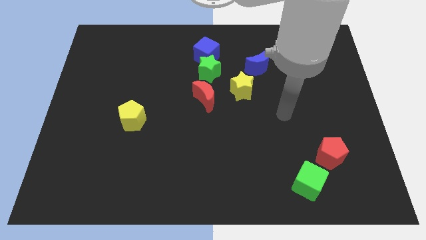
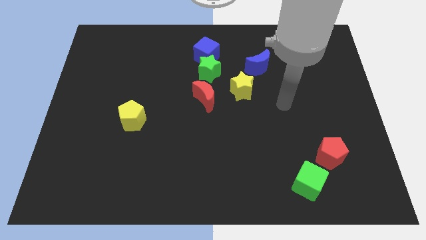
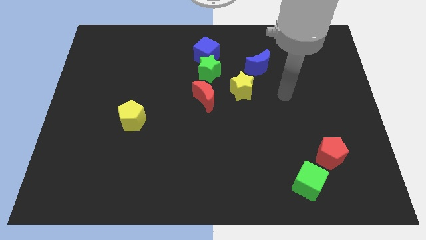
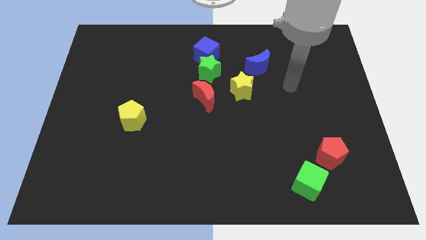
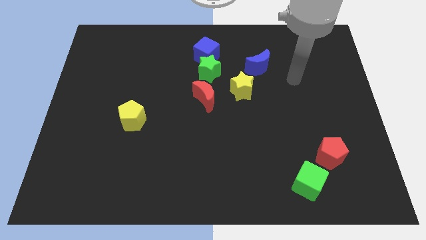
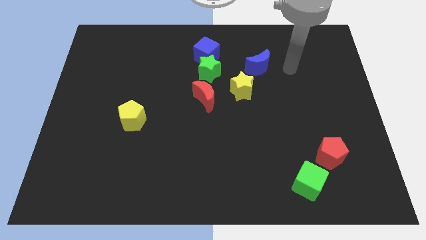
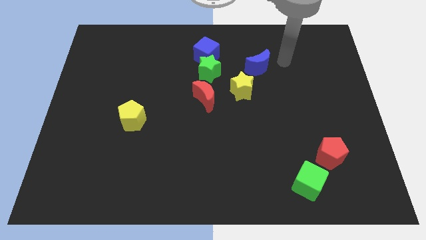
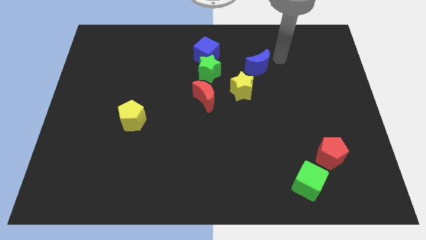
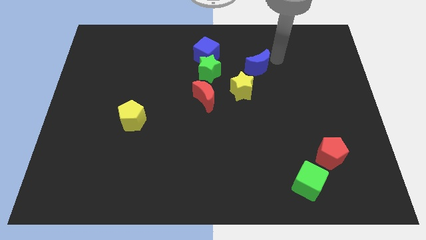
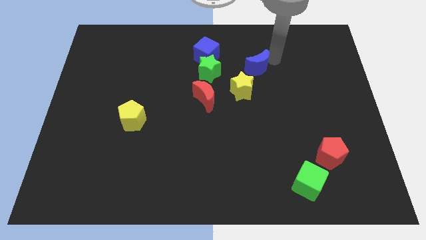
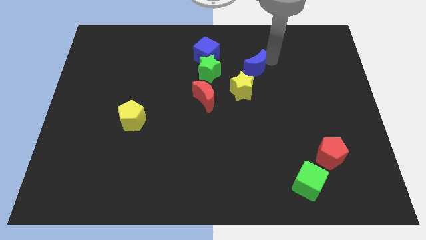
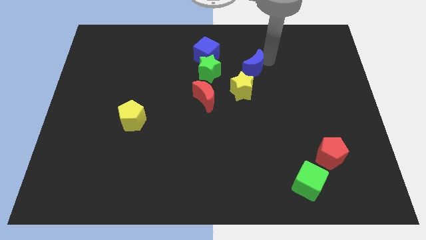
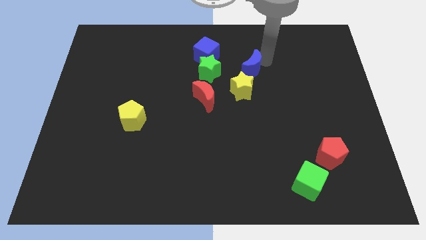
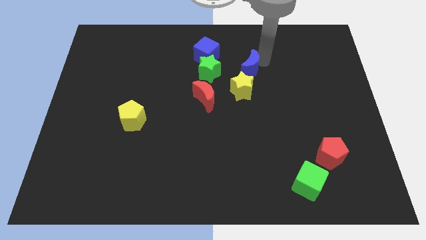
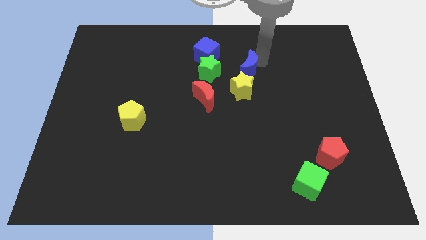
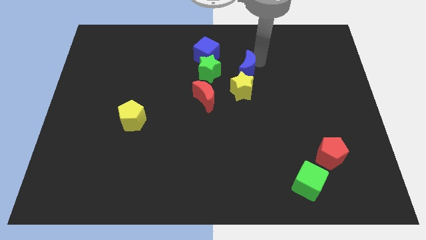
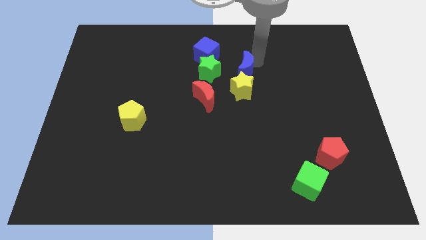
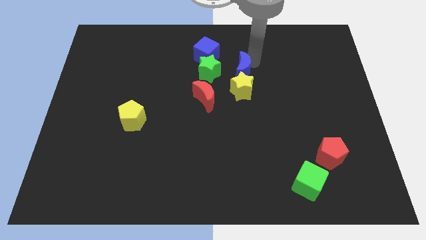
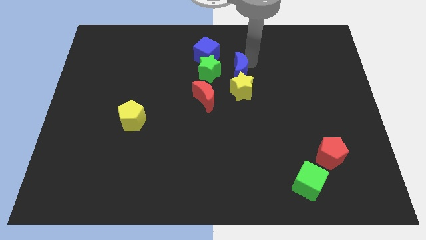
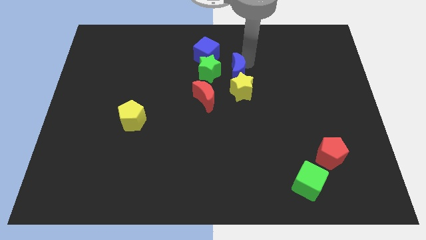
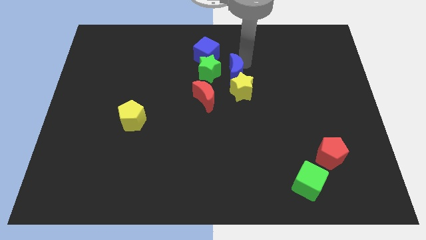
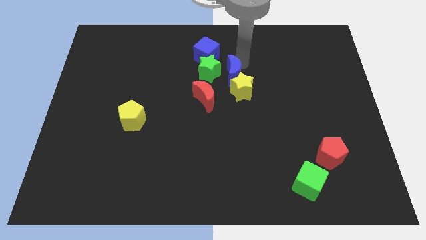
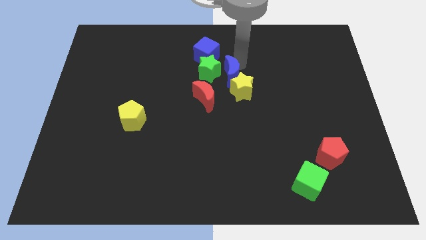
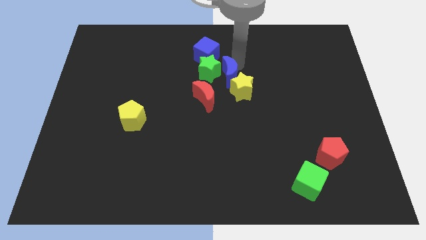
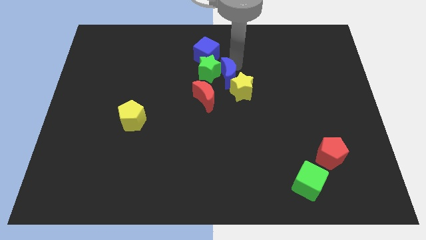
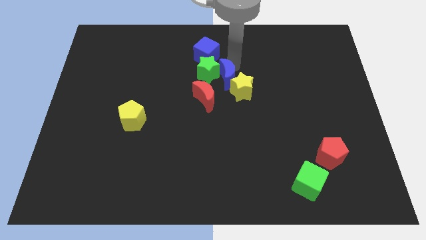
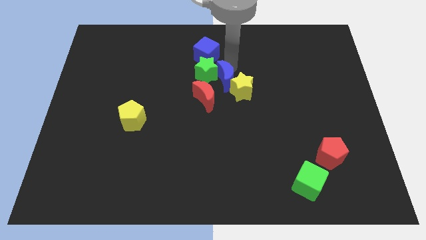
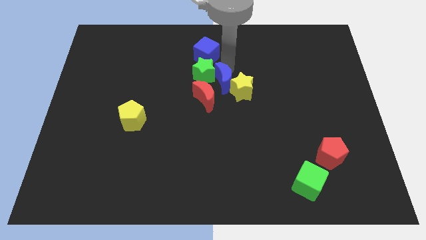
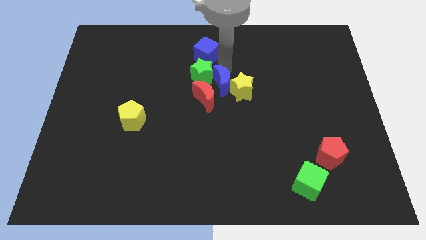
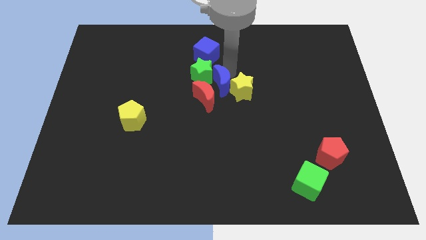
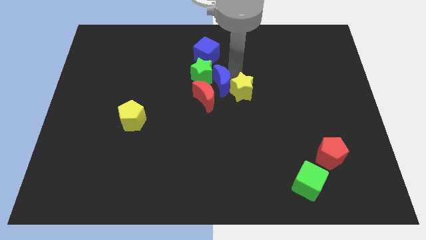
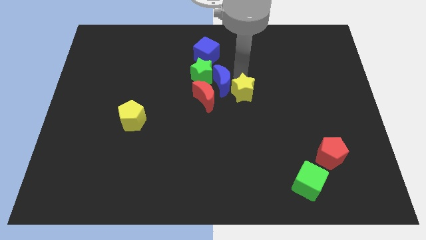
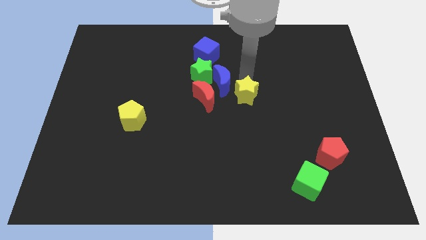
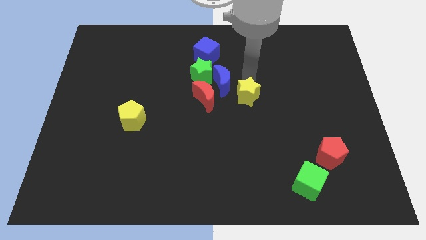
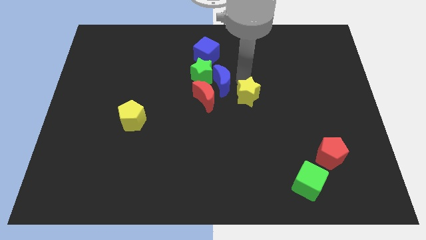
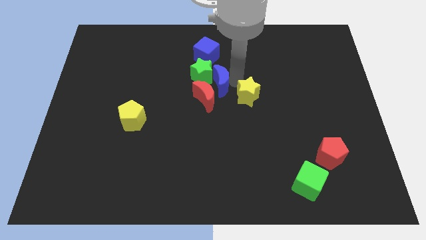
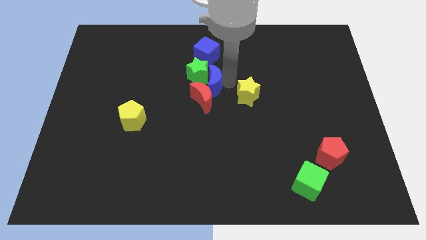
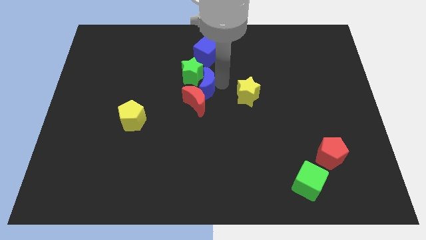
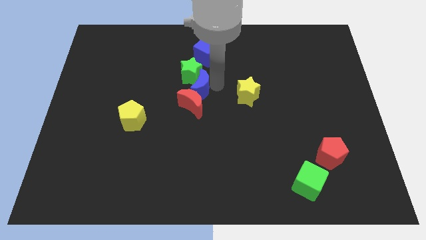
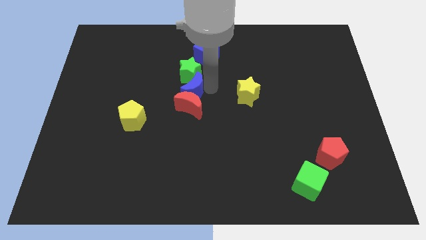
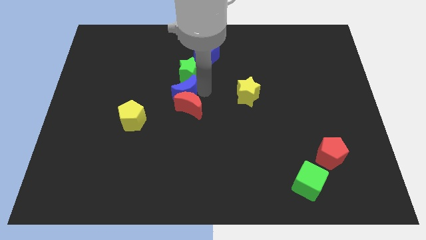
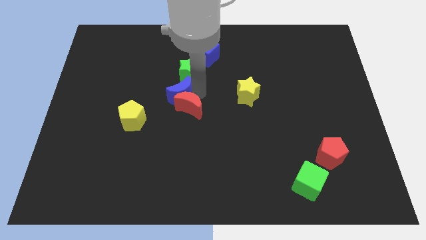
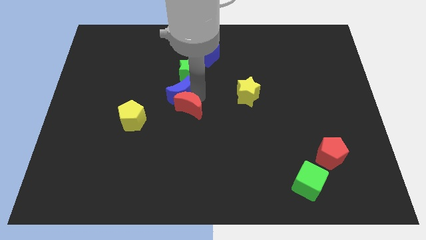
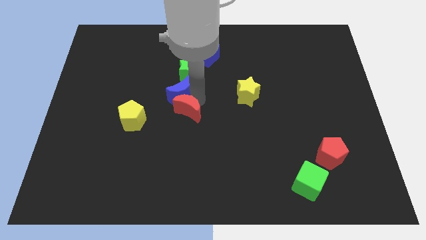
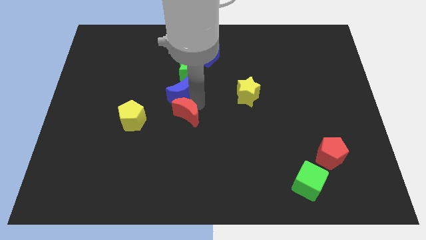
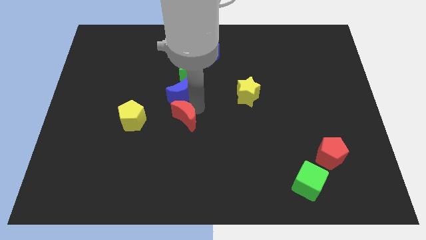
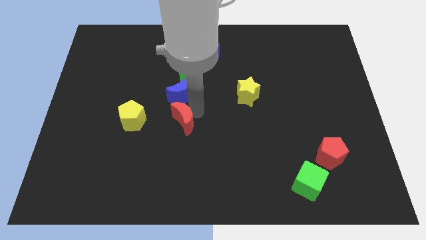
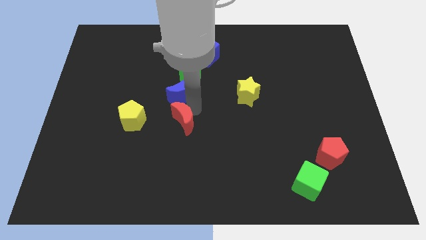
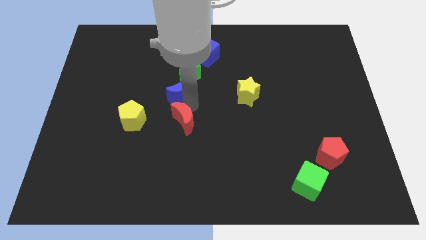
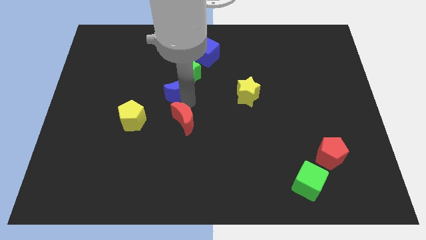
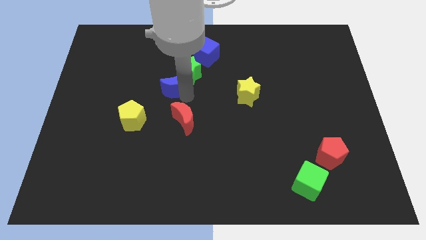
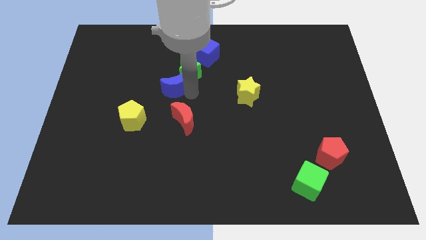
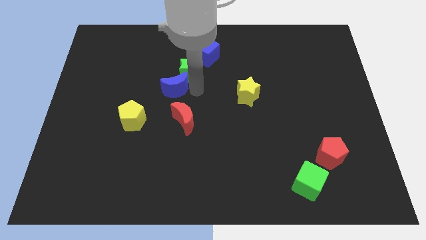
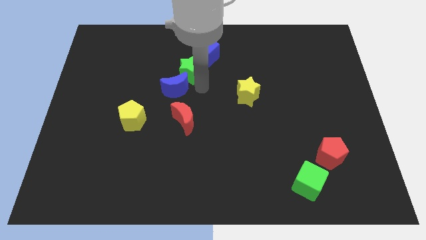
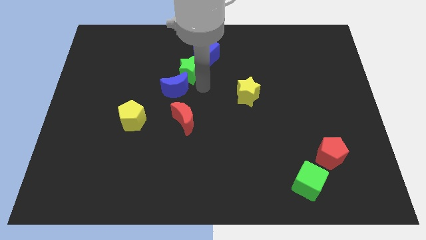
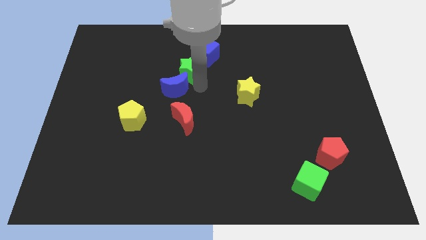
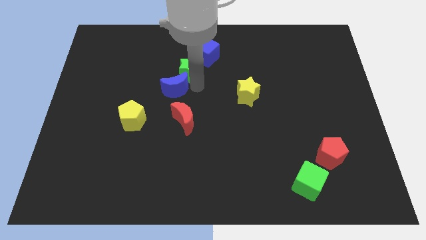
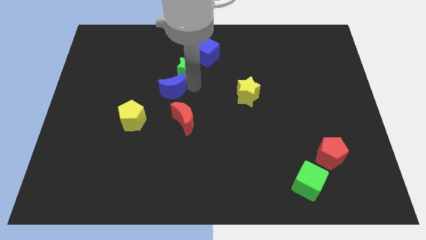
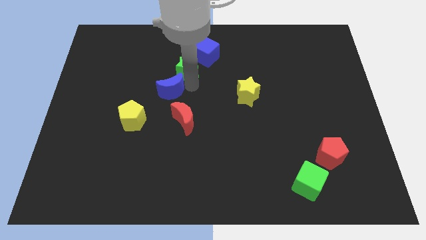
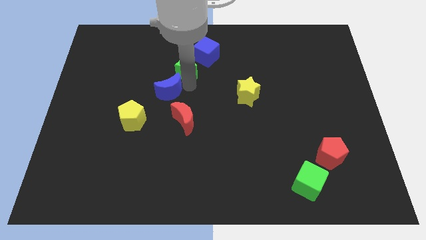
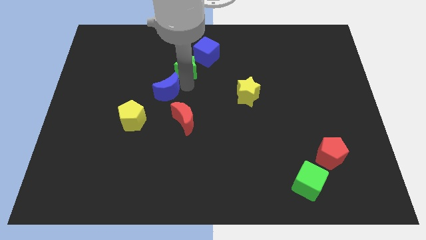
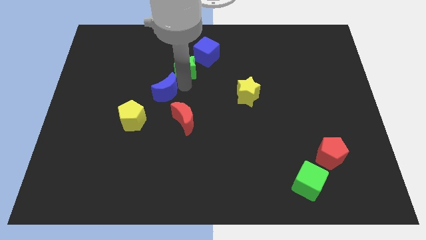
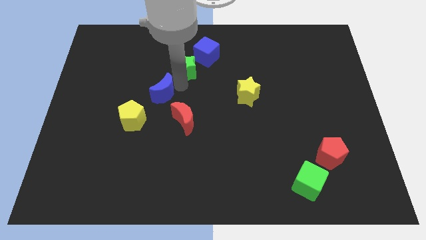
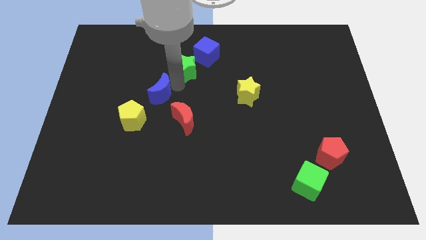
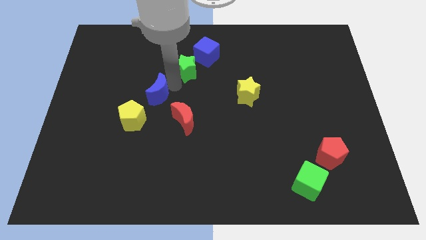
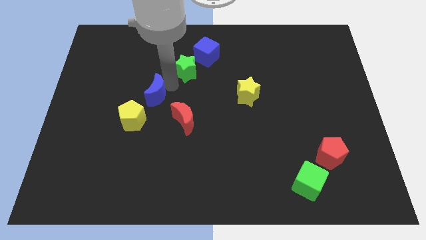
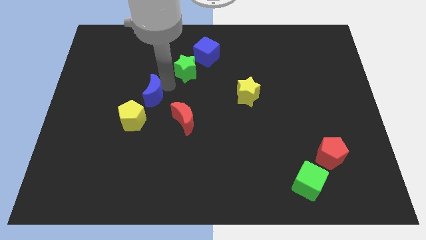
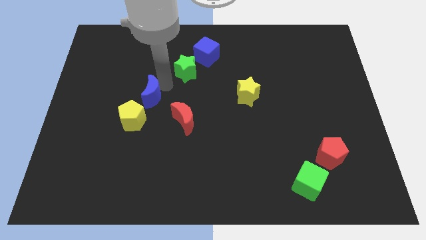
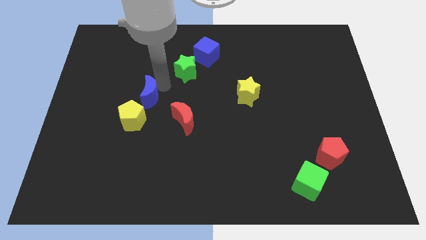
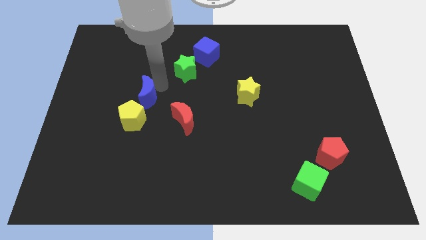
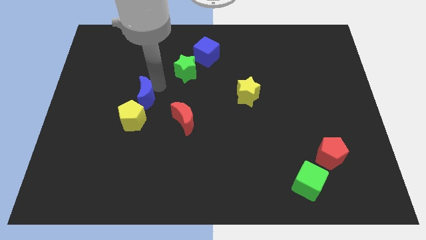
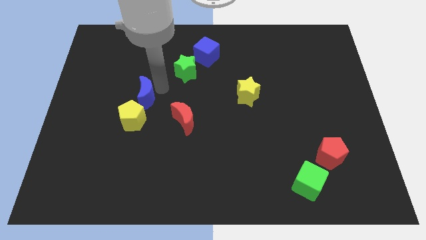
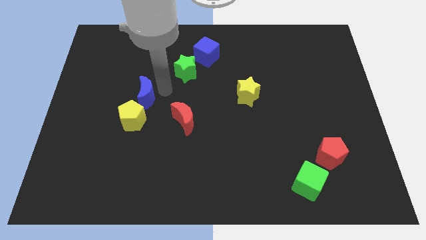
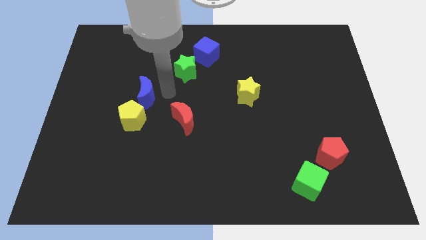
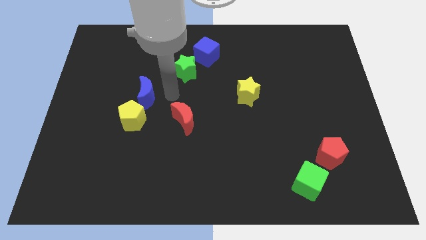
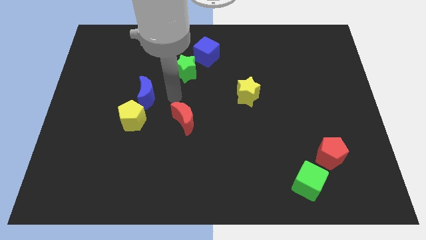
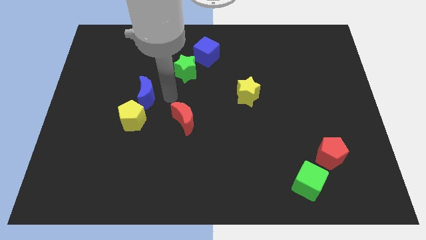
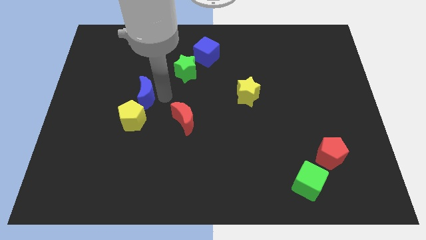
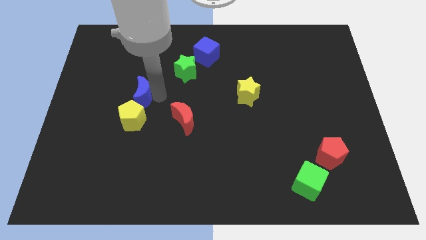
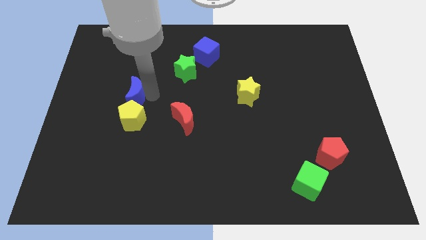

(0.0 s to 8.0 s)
slide the blue moon to the top left side of the yellow pentagon
